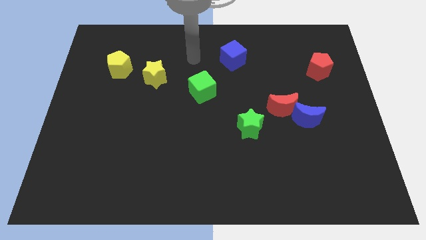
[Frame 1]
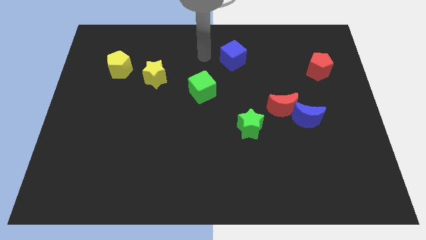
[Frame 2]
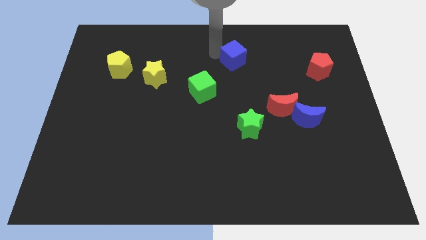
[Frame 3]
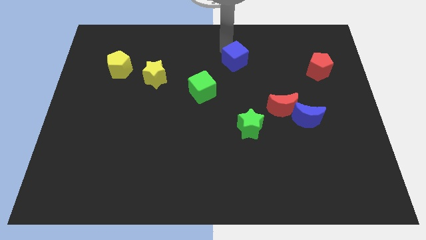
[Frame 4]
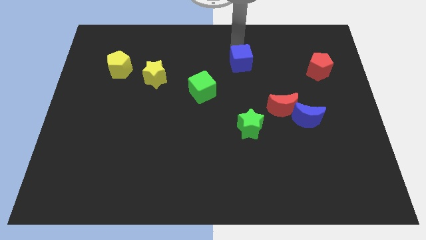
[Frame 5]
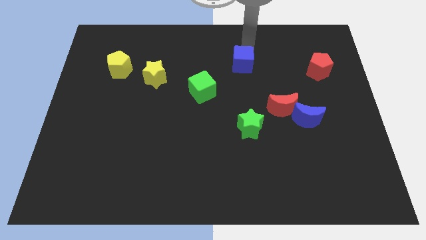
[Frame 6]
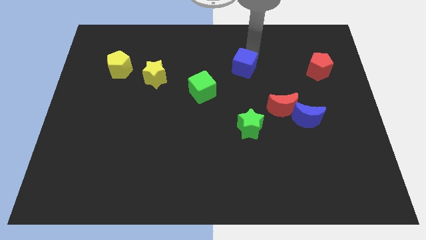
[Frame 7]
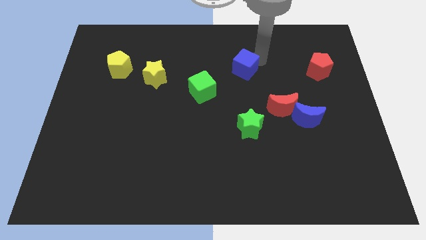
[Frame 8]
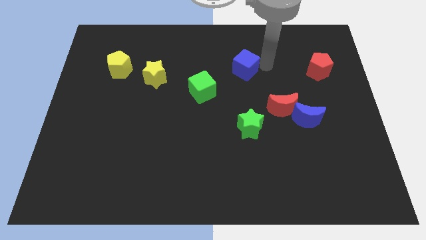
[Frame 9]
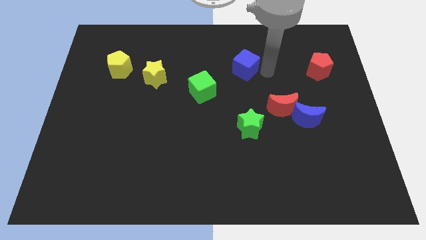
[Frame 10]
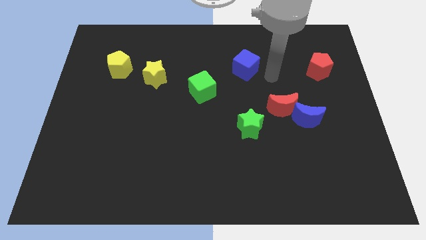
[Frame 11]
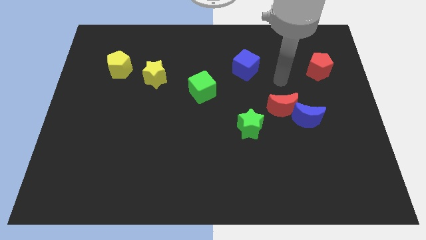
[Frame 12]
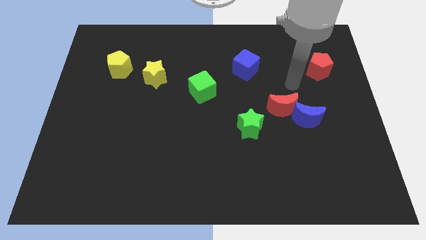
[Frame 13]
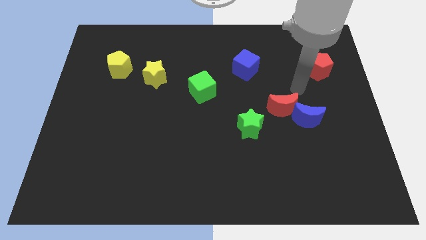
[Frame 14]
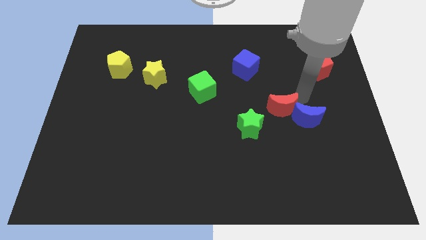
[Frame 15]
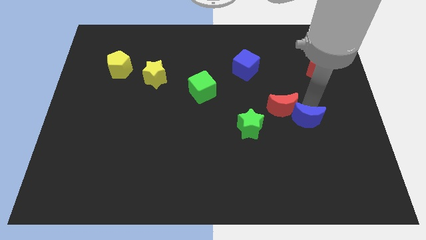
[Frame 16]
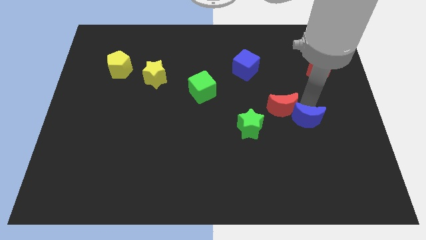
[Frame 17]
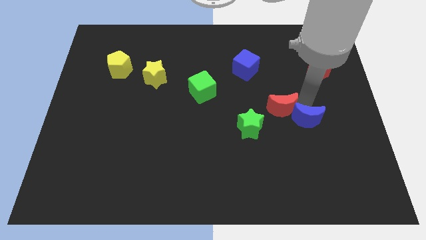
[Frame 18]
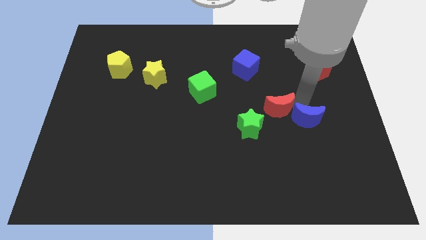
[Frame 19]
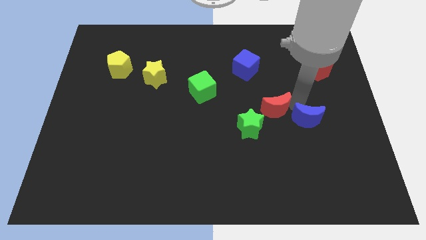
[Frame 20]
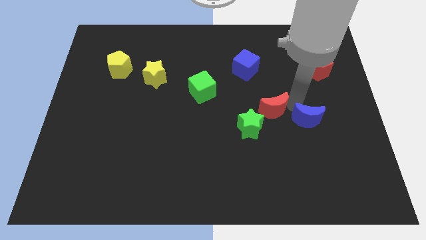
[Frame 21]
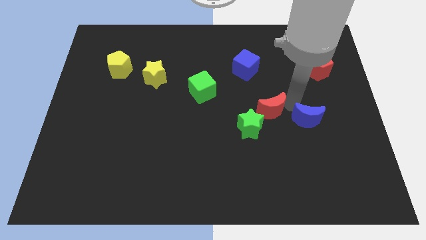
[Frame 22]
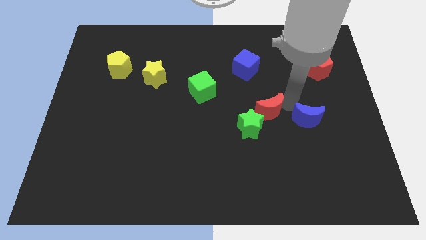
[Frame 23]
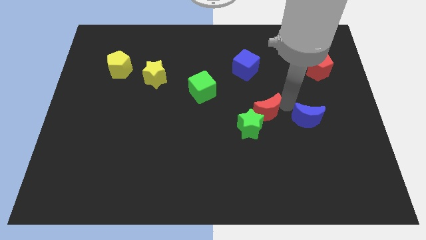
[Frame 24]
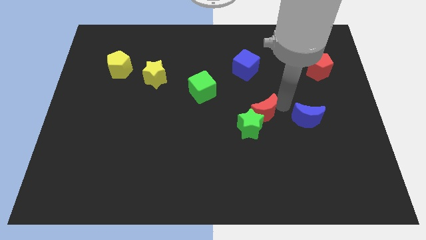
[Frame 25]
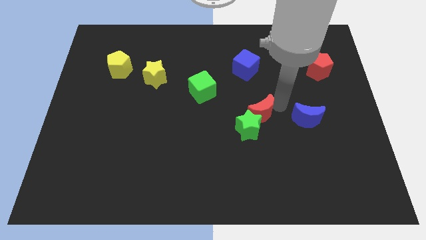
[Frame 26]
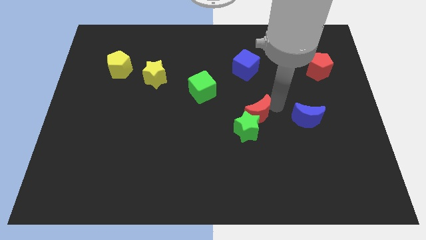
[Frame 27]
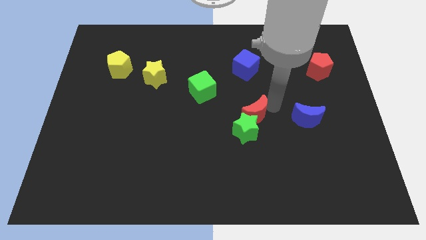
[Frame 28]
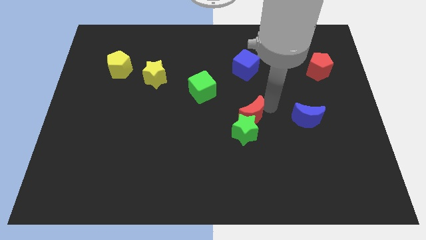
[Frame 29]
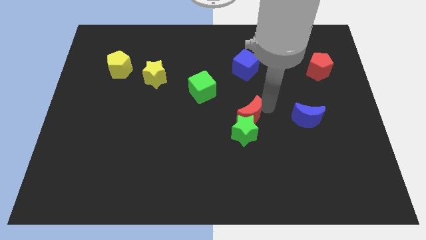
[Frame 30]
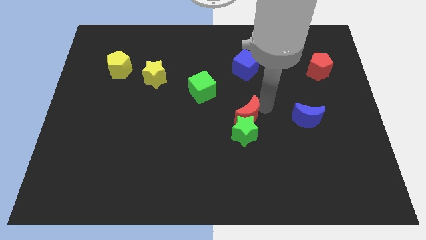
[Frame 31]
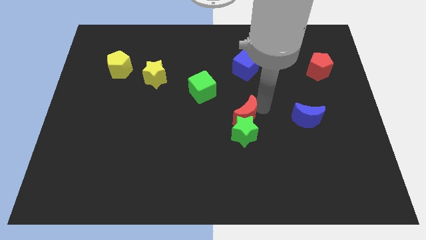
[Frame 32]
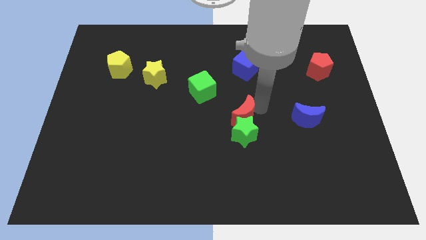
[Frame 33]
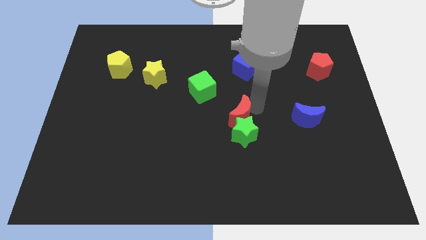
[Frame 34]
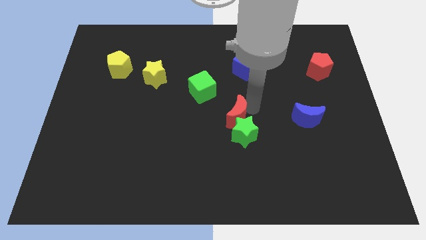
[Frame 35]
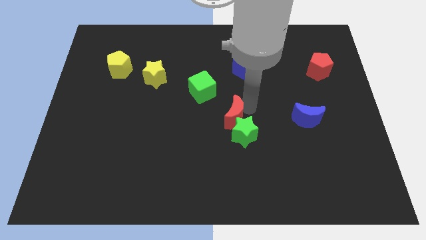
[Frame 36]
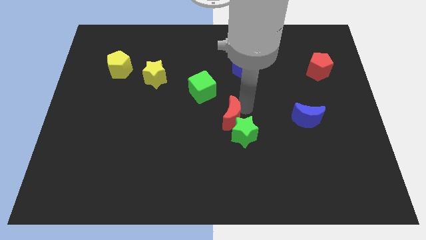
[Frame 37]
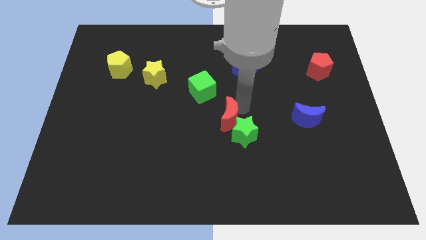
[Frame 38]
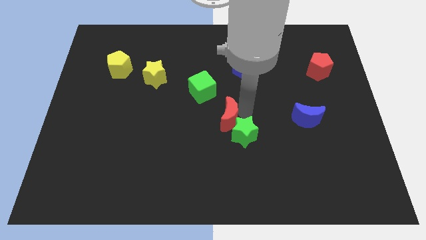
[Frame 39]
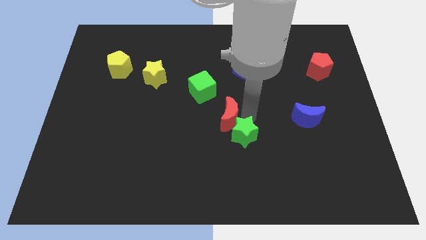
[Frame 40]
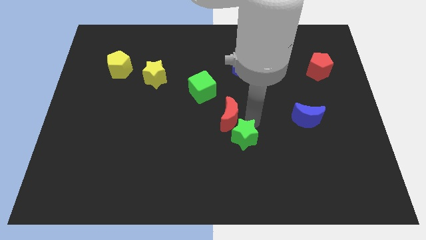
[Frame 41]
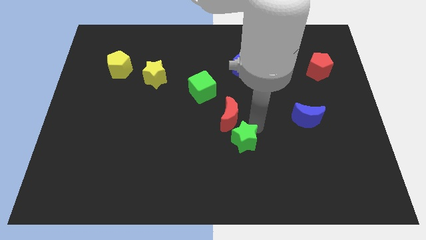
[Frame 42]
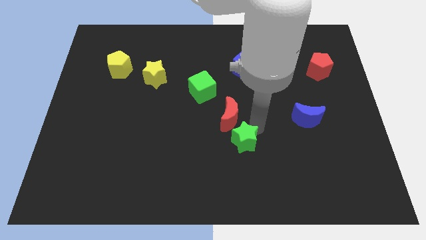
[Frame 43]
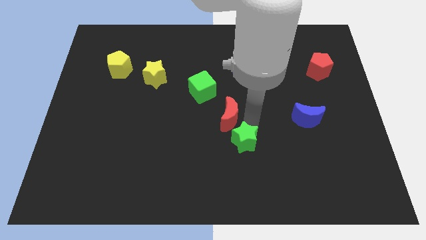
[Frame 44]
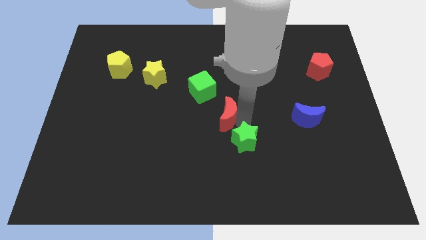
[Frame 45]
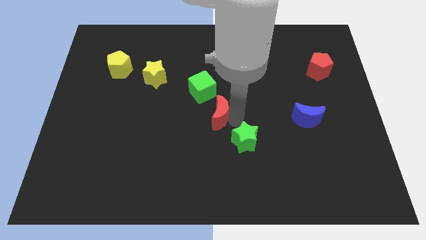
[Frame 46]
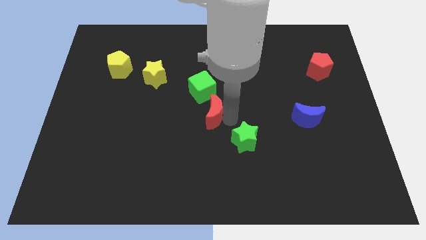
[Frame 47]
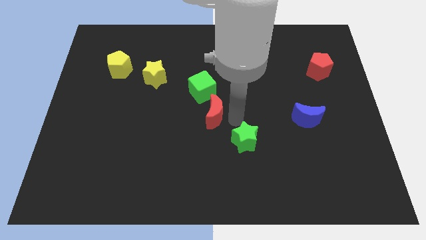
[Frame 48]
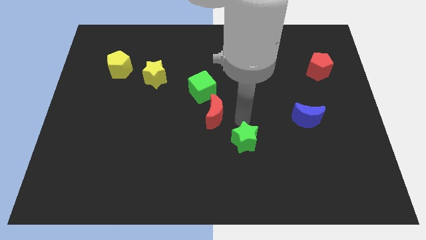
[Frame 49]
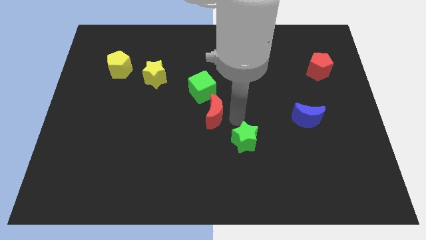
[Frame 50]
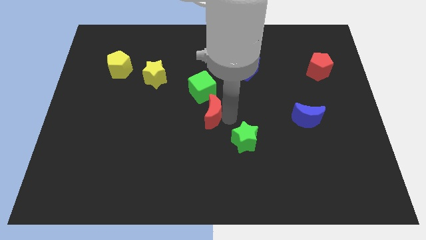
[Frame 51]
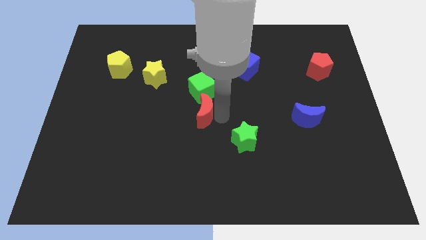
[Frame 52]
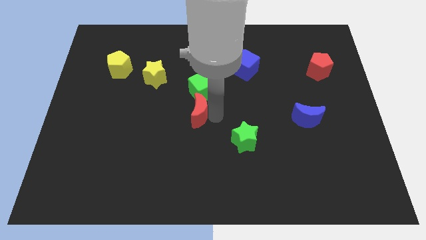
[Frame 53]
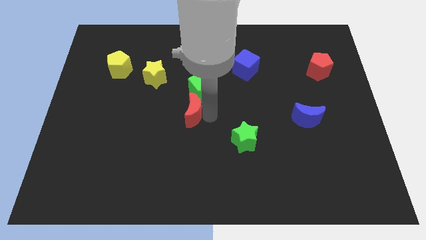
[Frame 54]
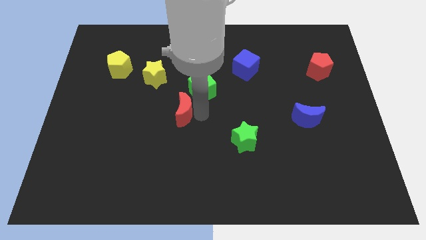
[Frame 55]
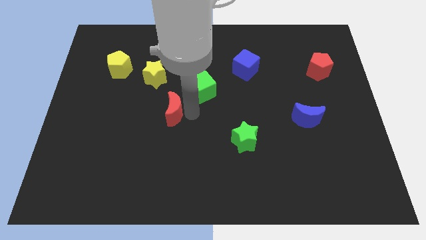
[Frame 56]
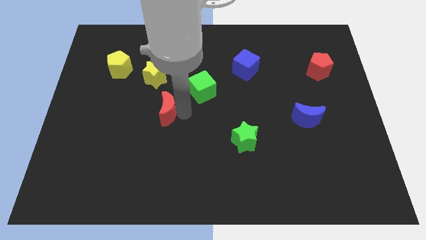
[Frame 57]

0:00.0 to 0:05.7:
put the red moon to the bottom of the yellow star

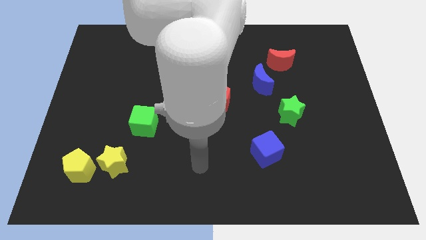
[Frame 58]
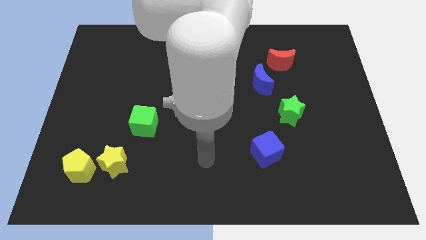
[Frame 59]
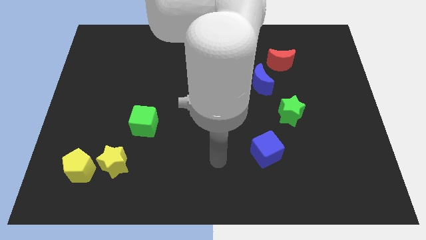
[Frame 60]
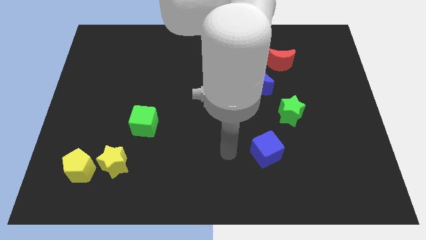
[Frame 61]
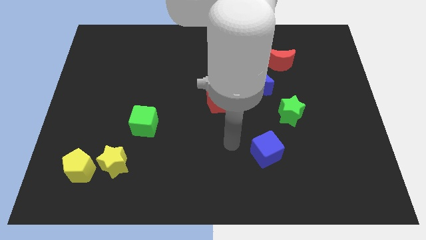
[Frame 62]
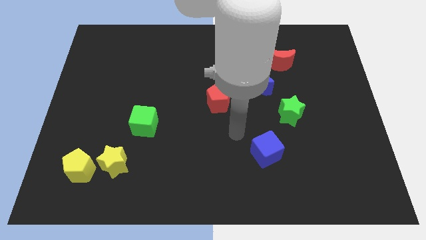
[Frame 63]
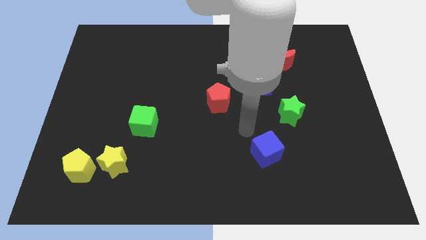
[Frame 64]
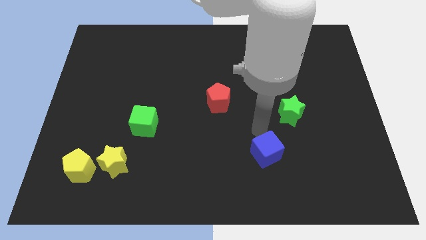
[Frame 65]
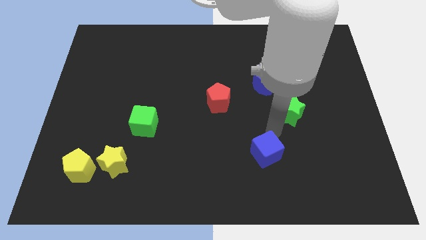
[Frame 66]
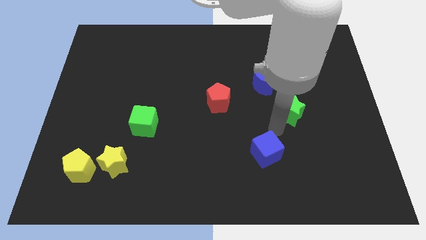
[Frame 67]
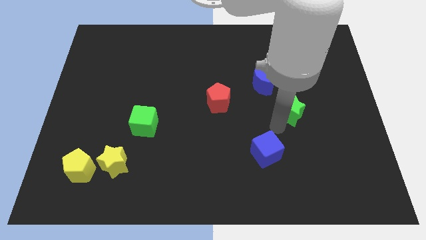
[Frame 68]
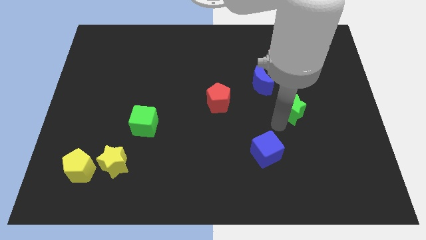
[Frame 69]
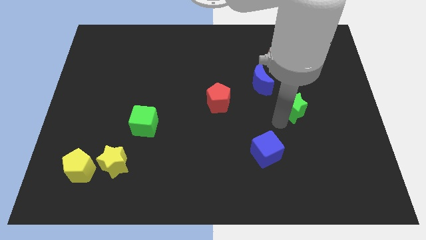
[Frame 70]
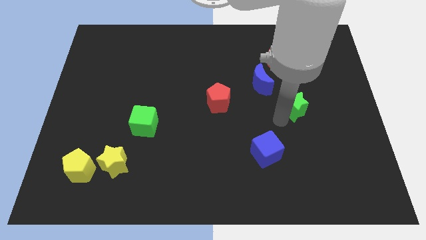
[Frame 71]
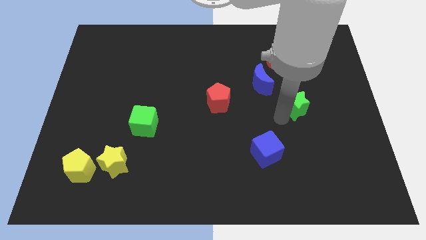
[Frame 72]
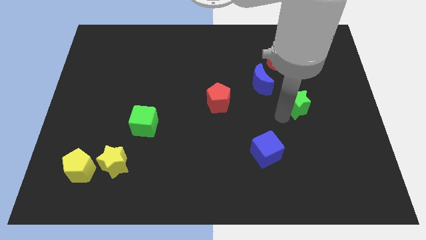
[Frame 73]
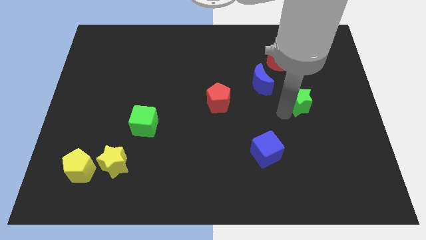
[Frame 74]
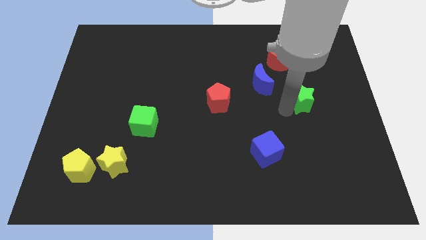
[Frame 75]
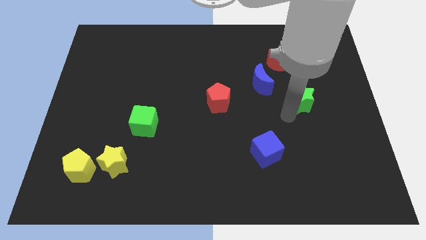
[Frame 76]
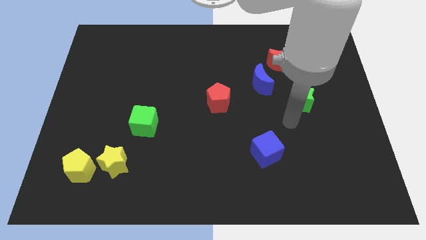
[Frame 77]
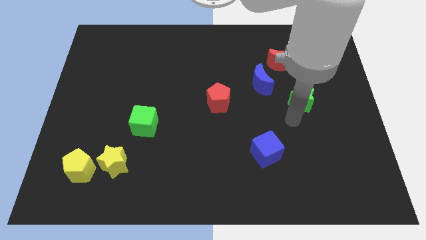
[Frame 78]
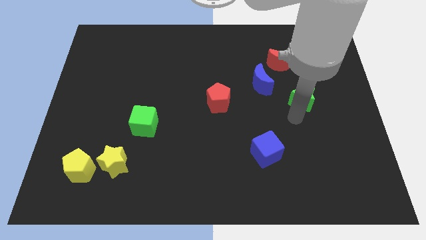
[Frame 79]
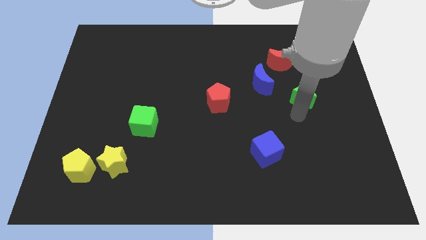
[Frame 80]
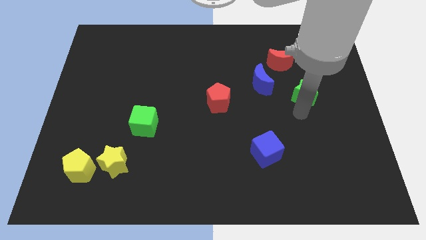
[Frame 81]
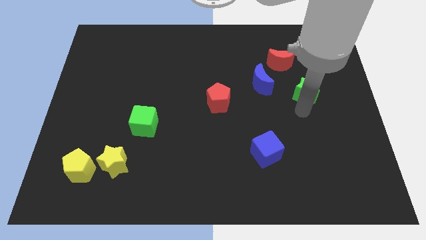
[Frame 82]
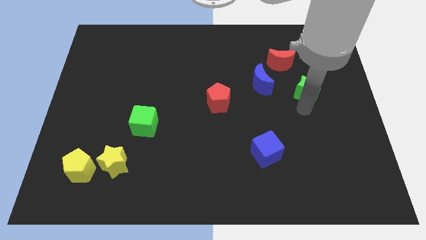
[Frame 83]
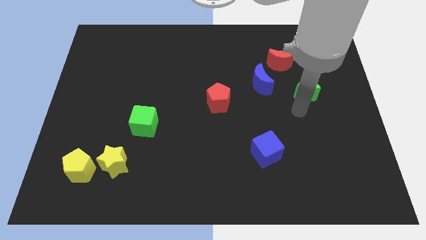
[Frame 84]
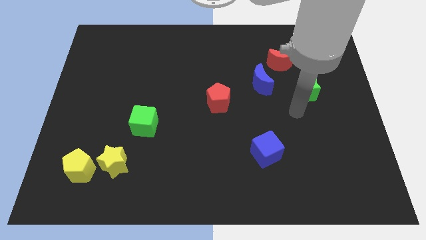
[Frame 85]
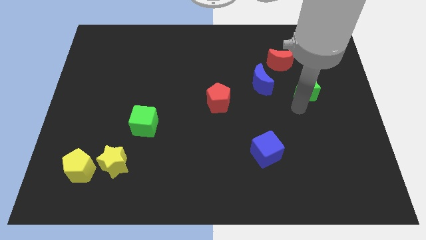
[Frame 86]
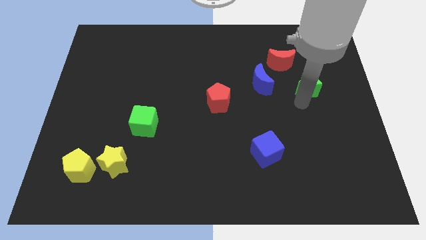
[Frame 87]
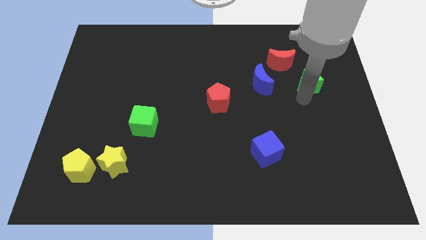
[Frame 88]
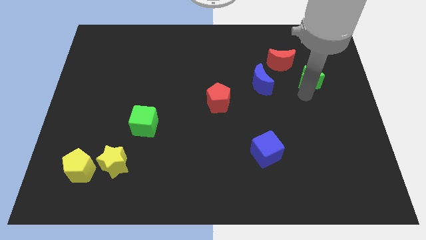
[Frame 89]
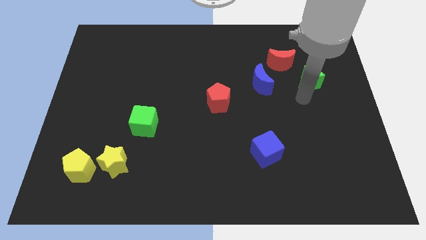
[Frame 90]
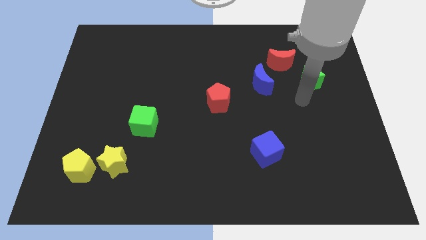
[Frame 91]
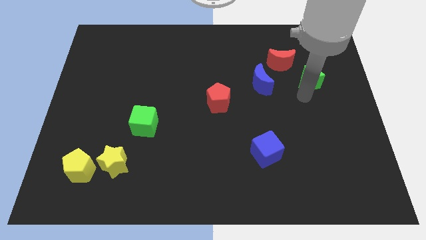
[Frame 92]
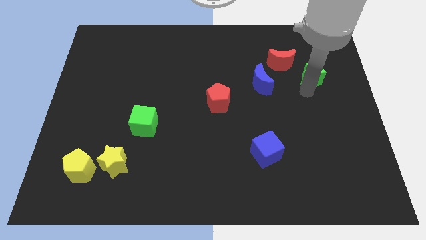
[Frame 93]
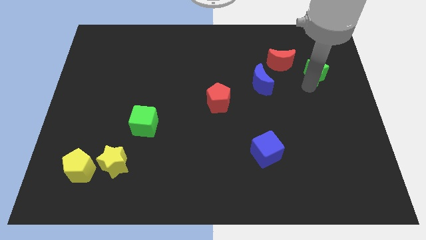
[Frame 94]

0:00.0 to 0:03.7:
put the green star to the right side of the red moon
